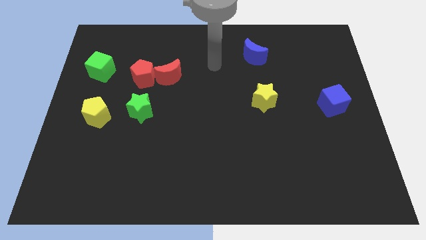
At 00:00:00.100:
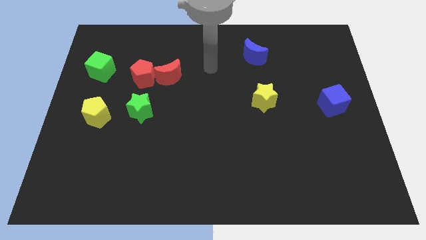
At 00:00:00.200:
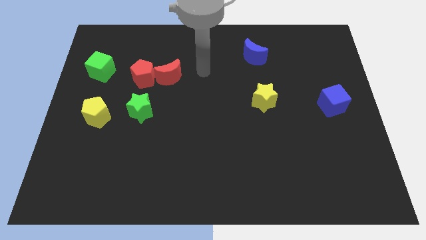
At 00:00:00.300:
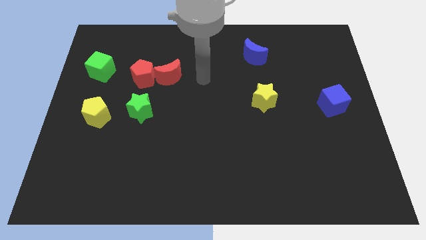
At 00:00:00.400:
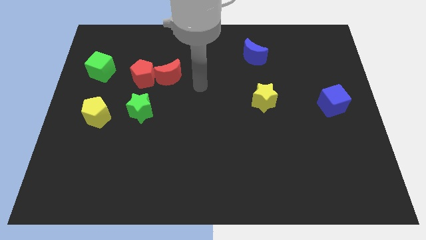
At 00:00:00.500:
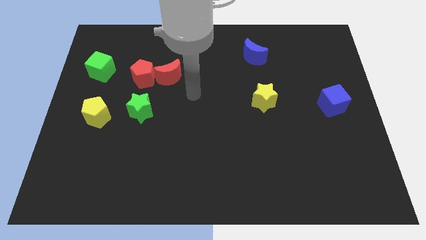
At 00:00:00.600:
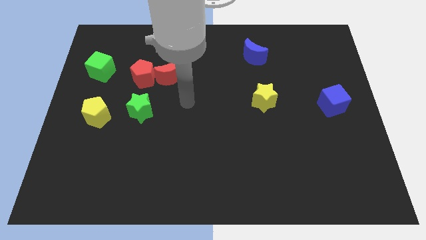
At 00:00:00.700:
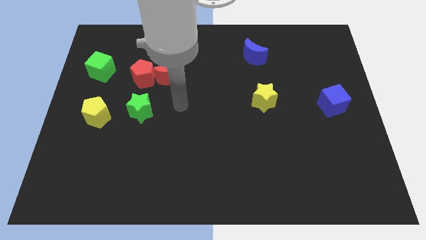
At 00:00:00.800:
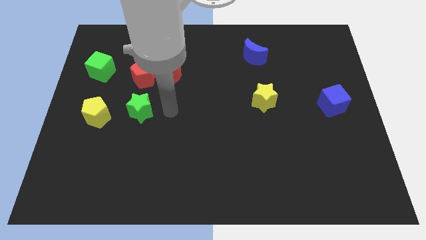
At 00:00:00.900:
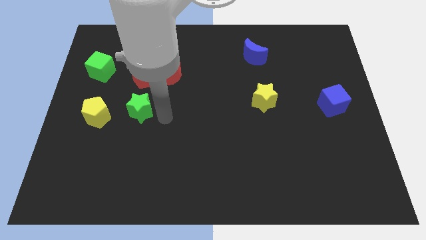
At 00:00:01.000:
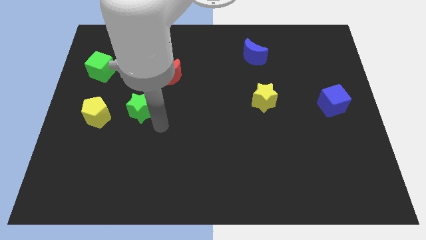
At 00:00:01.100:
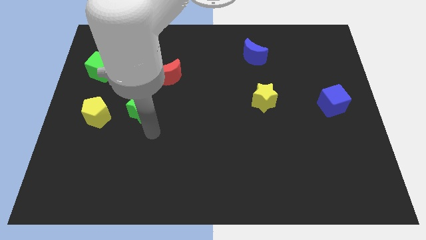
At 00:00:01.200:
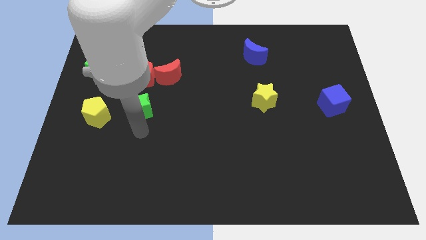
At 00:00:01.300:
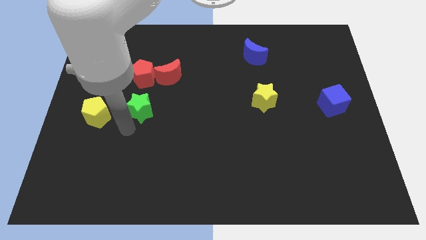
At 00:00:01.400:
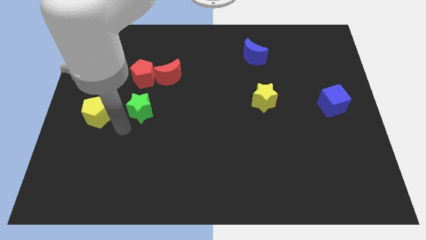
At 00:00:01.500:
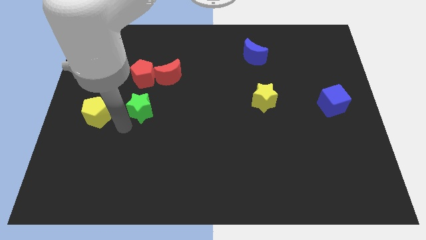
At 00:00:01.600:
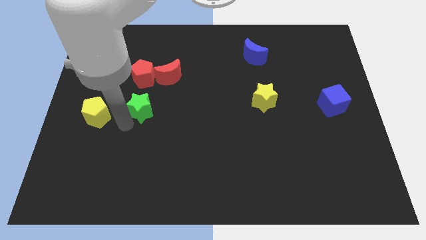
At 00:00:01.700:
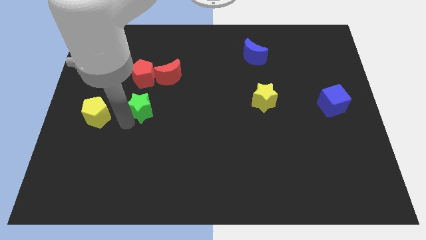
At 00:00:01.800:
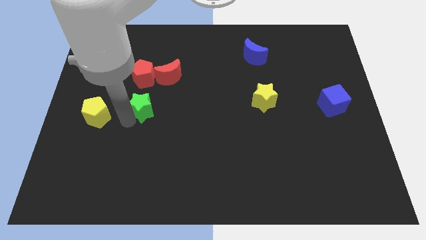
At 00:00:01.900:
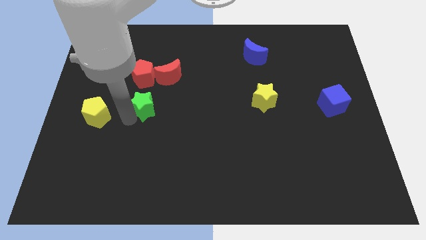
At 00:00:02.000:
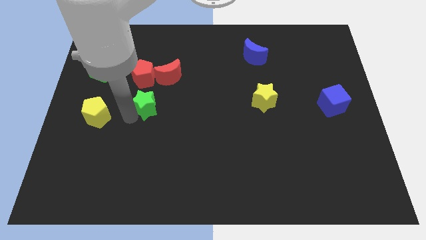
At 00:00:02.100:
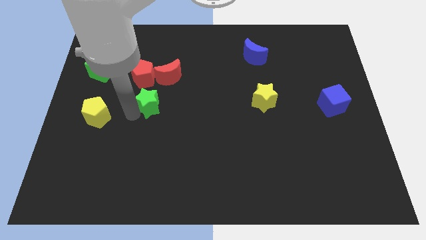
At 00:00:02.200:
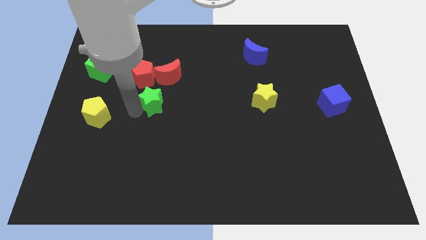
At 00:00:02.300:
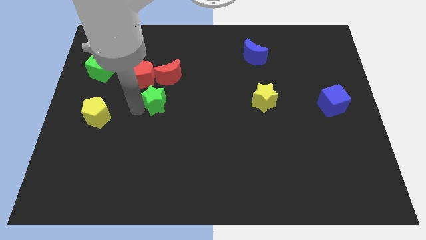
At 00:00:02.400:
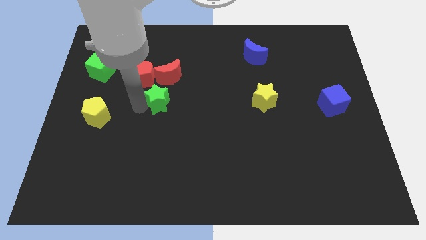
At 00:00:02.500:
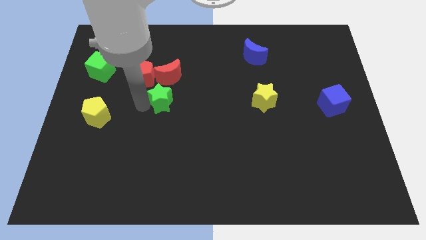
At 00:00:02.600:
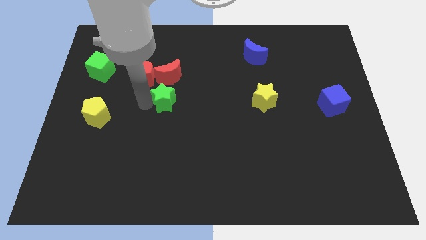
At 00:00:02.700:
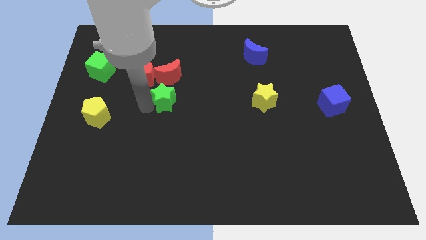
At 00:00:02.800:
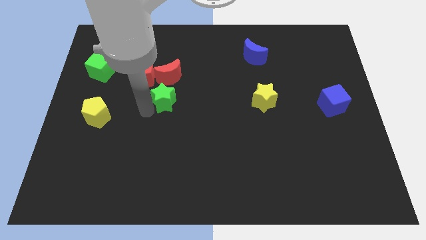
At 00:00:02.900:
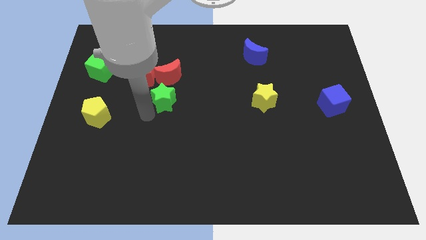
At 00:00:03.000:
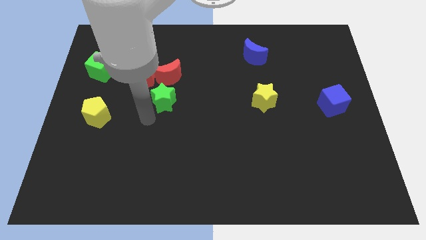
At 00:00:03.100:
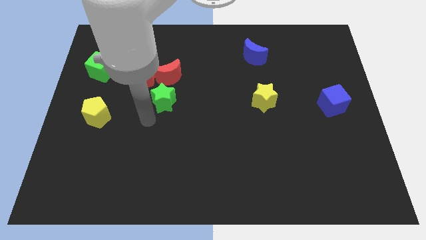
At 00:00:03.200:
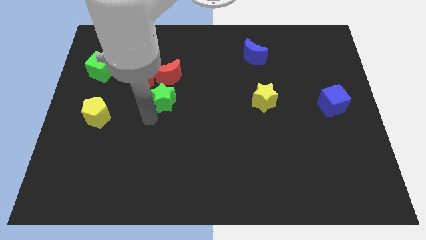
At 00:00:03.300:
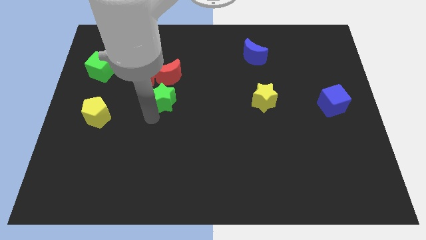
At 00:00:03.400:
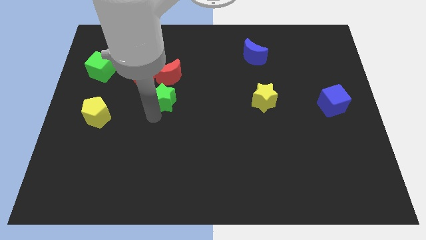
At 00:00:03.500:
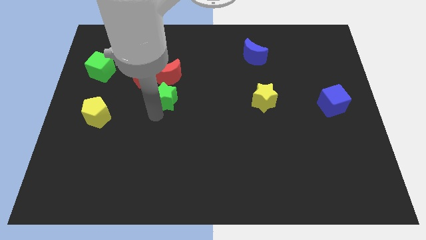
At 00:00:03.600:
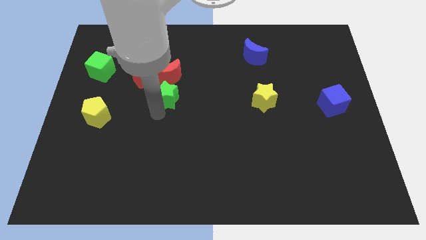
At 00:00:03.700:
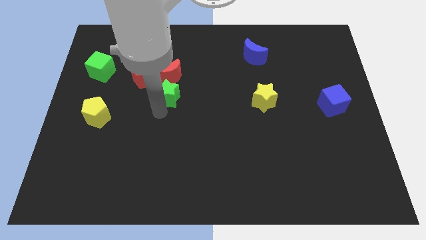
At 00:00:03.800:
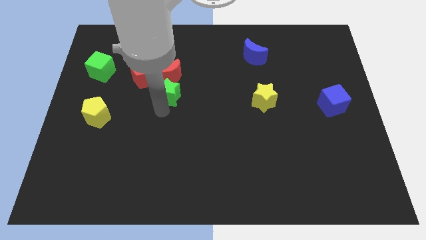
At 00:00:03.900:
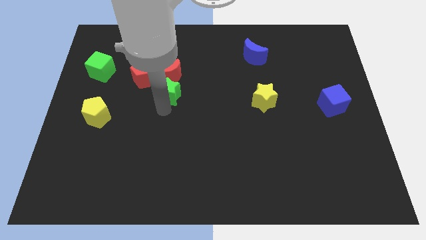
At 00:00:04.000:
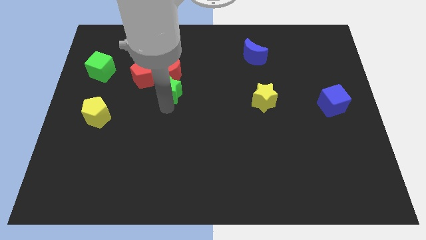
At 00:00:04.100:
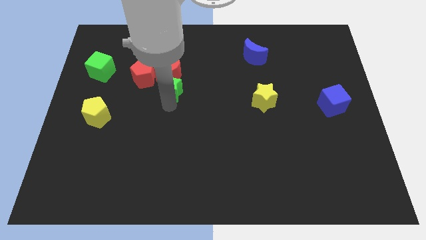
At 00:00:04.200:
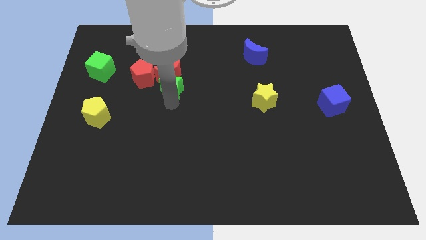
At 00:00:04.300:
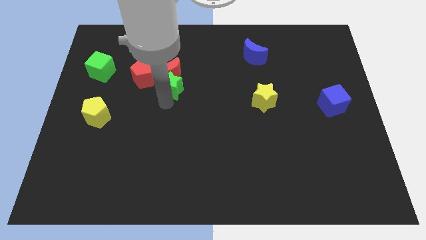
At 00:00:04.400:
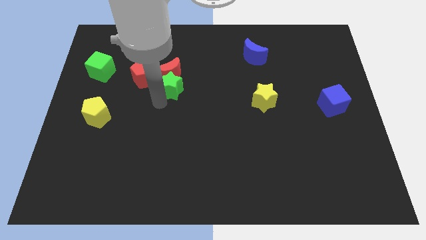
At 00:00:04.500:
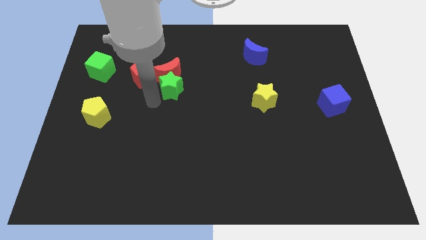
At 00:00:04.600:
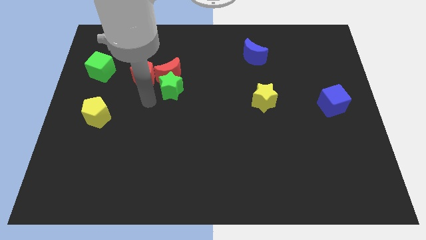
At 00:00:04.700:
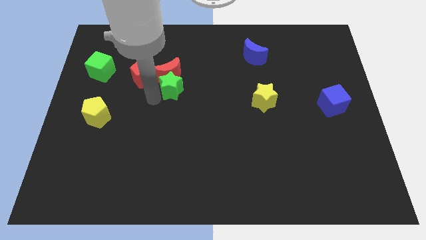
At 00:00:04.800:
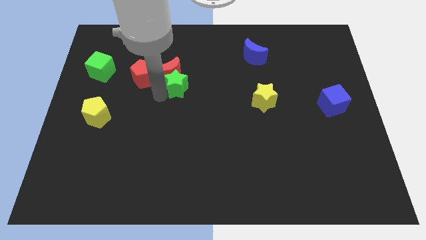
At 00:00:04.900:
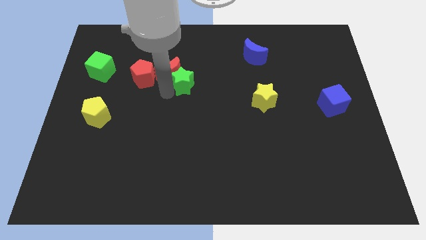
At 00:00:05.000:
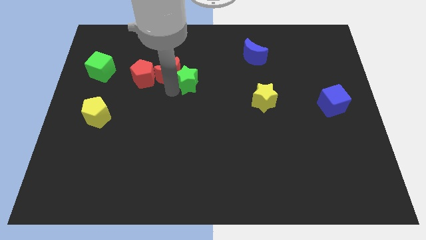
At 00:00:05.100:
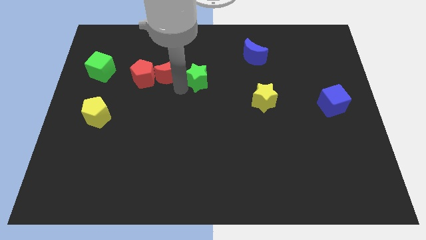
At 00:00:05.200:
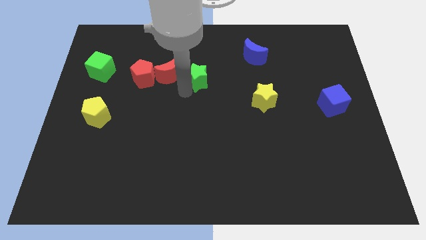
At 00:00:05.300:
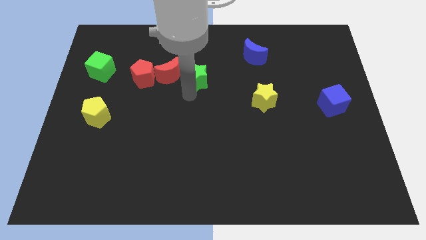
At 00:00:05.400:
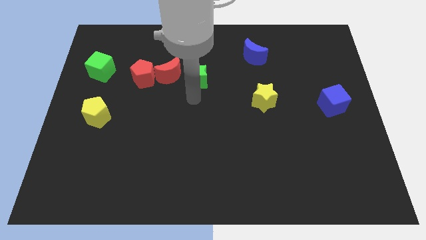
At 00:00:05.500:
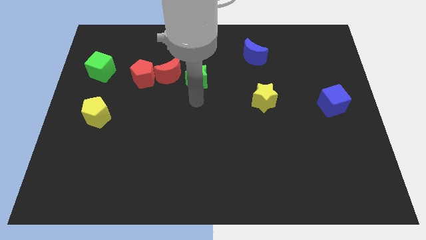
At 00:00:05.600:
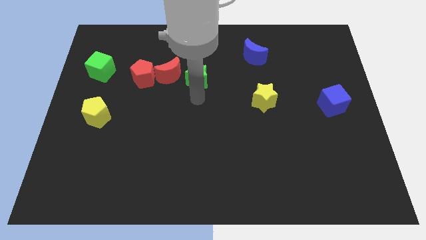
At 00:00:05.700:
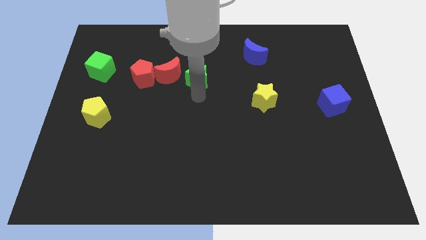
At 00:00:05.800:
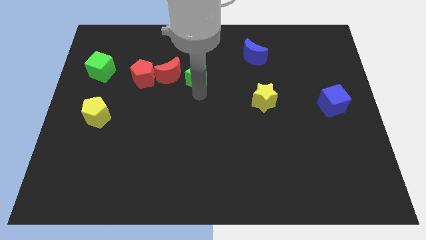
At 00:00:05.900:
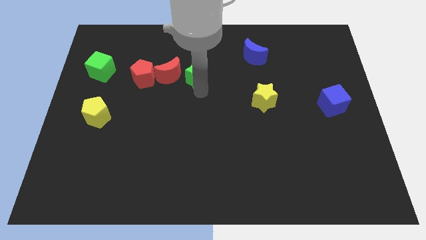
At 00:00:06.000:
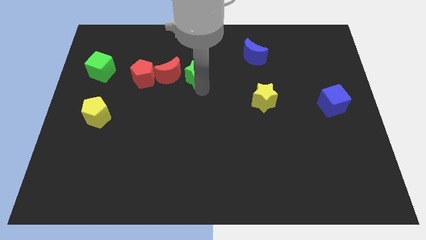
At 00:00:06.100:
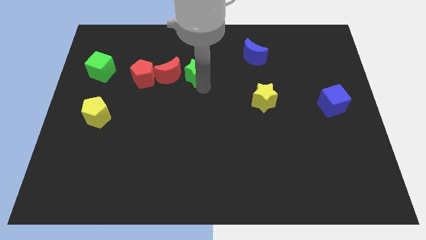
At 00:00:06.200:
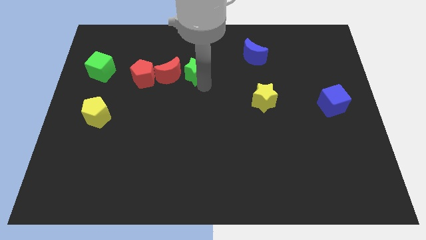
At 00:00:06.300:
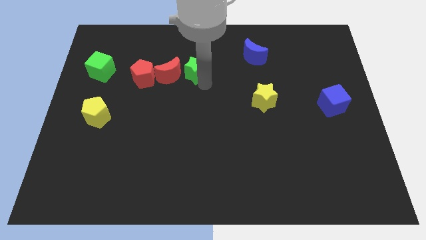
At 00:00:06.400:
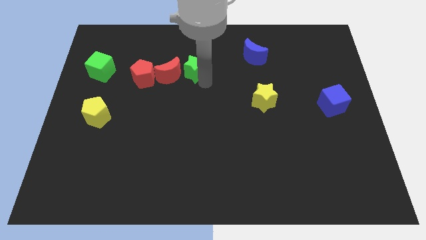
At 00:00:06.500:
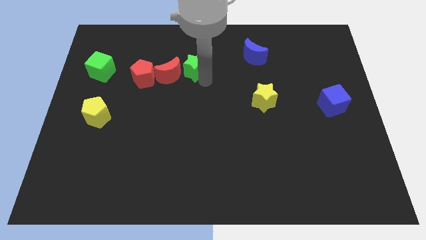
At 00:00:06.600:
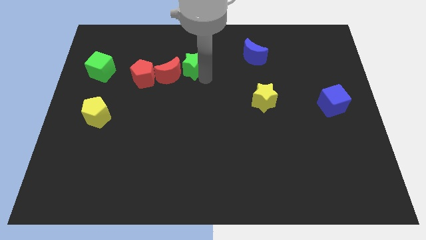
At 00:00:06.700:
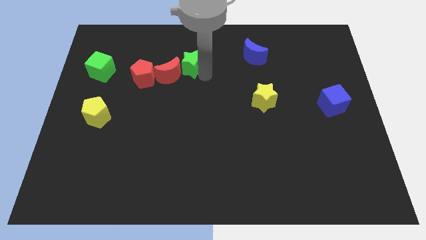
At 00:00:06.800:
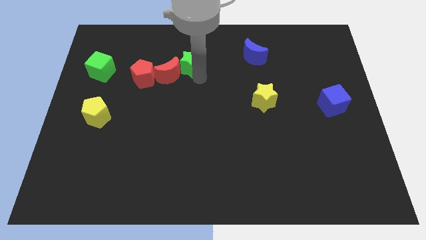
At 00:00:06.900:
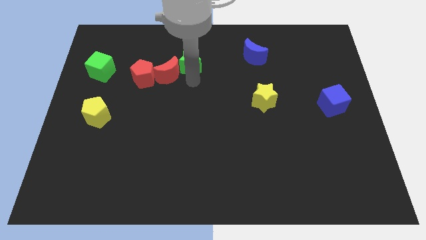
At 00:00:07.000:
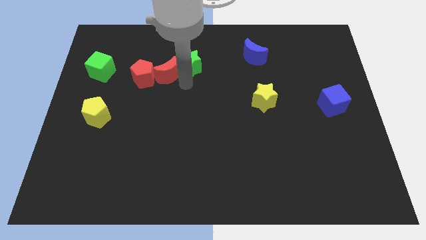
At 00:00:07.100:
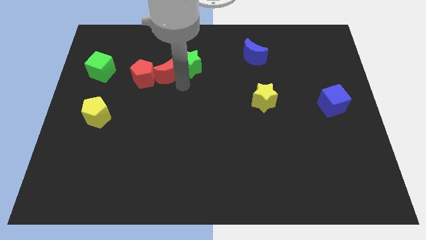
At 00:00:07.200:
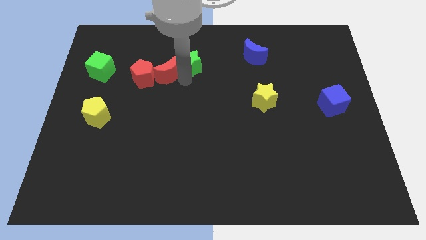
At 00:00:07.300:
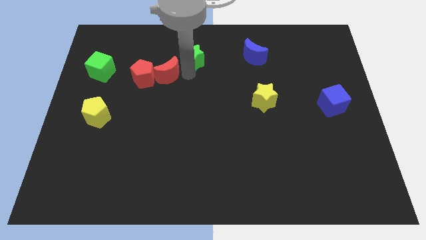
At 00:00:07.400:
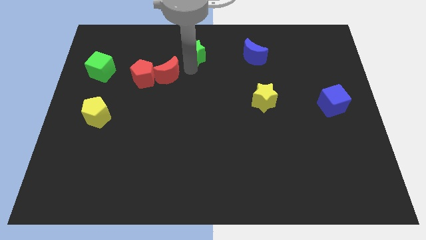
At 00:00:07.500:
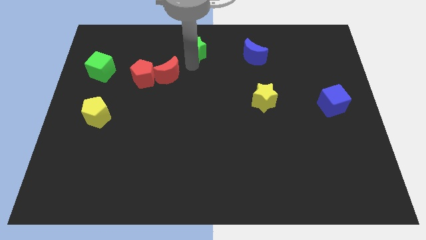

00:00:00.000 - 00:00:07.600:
put the green star to the top side
